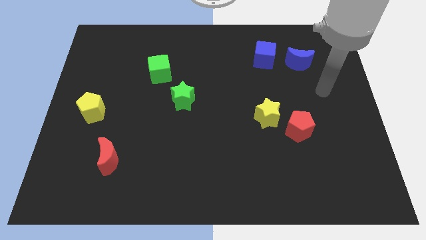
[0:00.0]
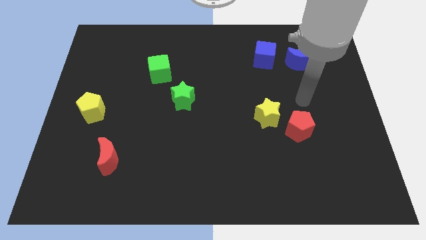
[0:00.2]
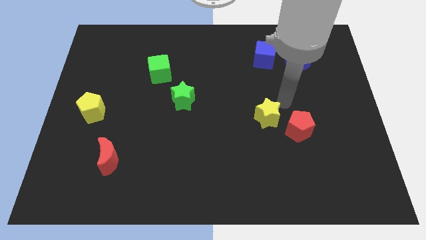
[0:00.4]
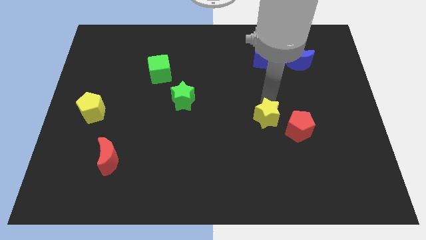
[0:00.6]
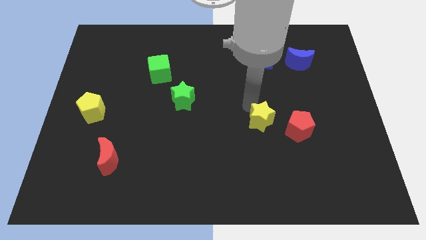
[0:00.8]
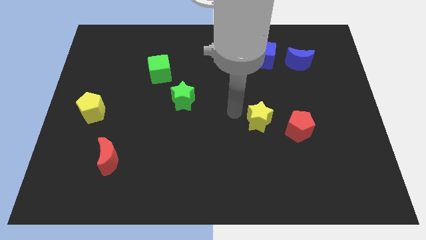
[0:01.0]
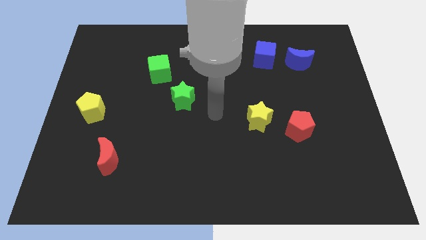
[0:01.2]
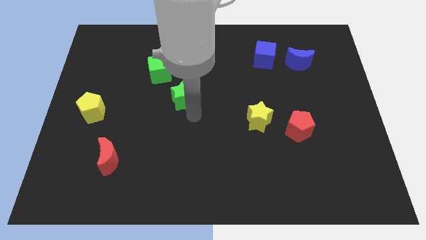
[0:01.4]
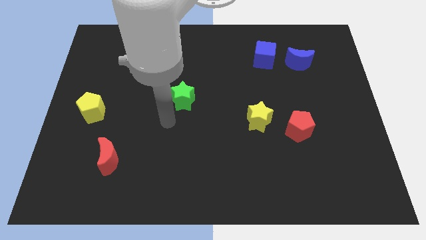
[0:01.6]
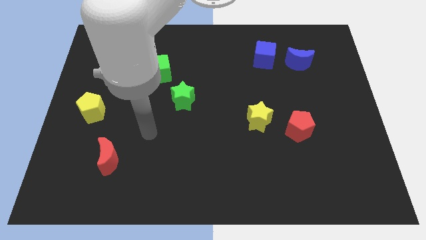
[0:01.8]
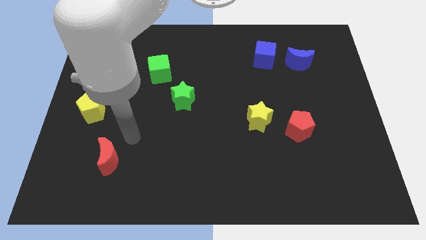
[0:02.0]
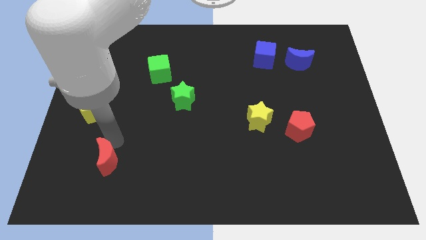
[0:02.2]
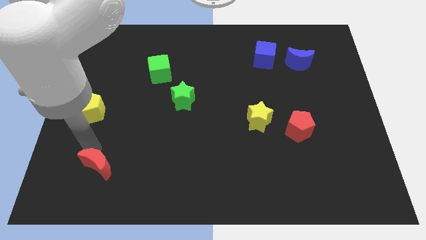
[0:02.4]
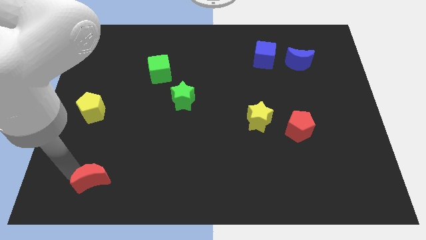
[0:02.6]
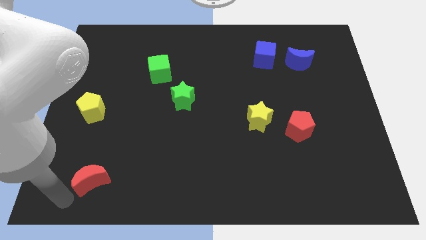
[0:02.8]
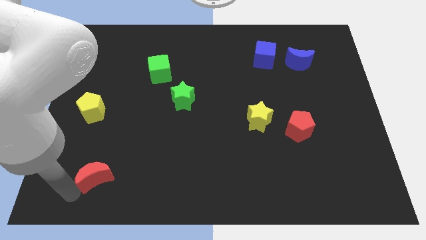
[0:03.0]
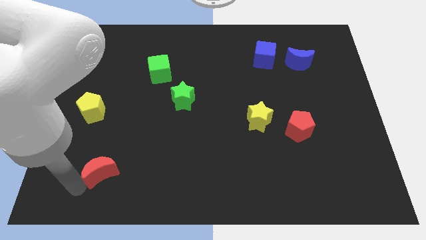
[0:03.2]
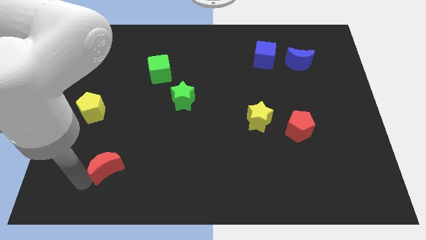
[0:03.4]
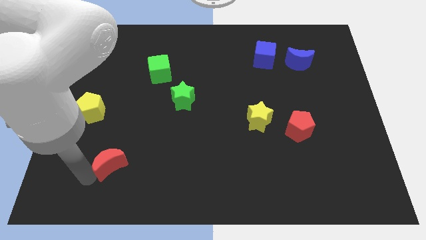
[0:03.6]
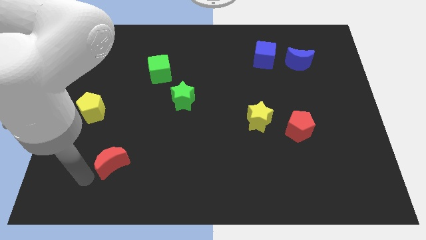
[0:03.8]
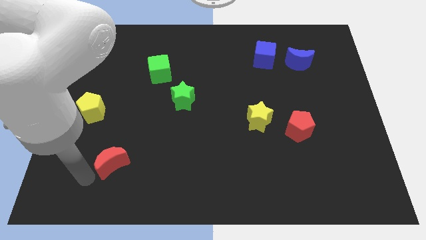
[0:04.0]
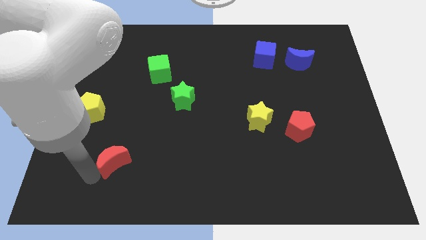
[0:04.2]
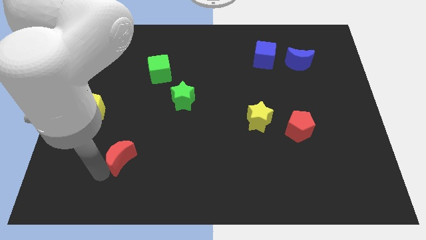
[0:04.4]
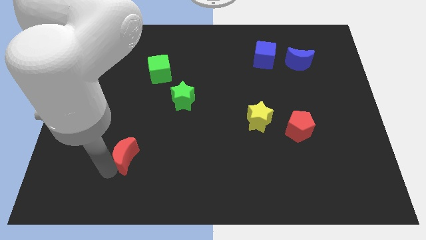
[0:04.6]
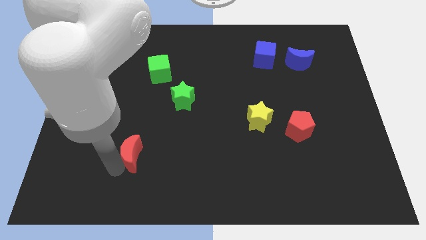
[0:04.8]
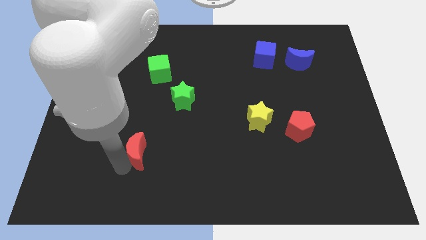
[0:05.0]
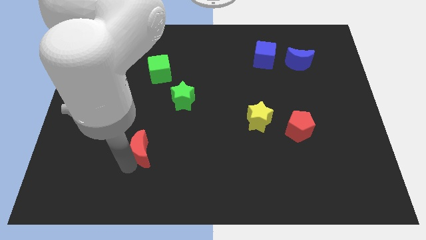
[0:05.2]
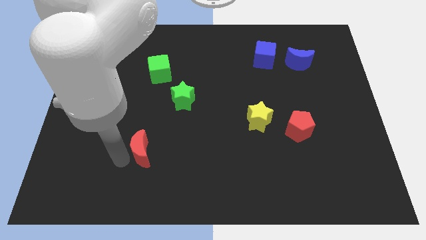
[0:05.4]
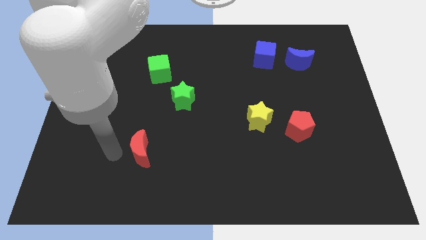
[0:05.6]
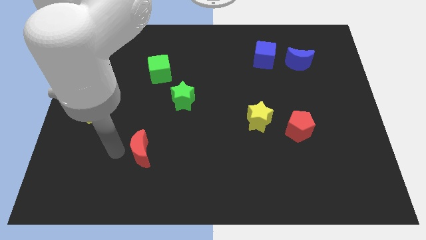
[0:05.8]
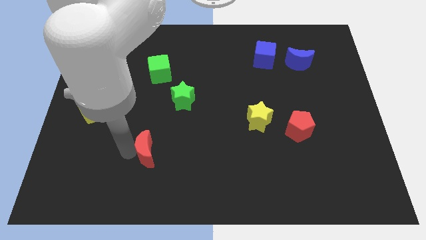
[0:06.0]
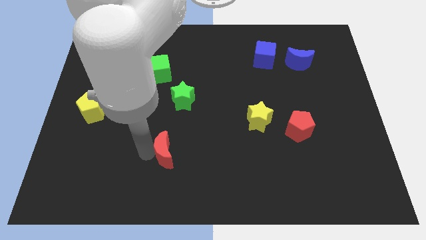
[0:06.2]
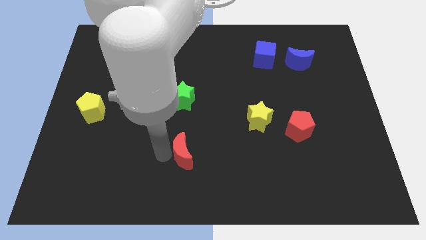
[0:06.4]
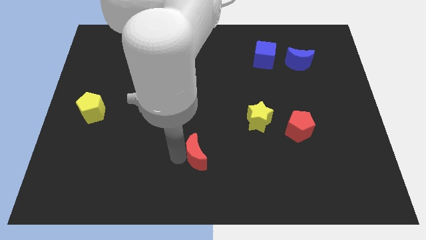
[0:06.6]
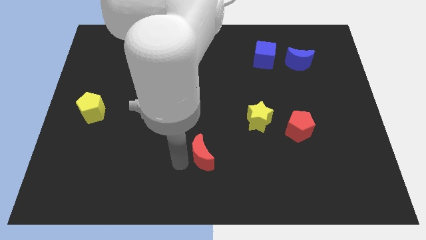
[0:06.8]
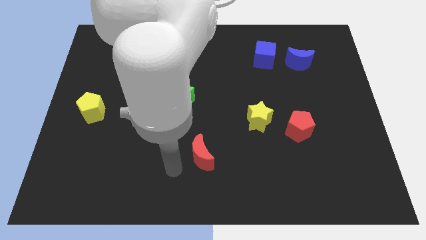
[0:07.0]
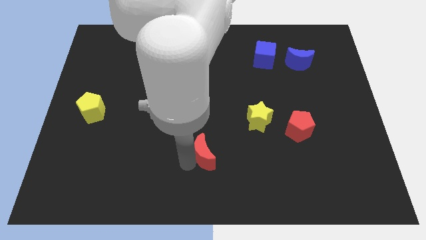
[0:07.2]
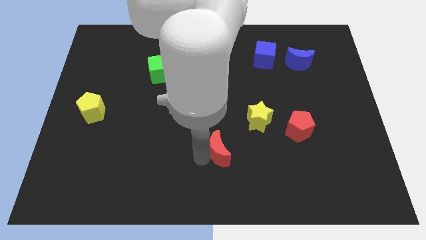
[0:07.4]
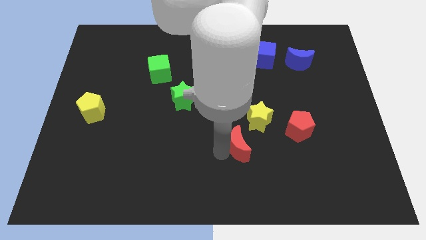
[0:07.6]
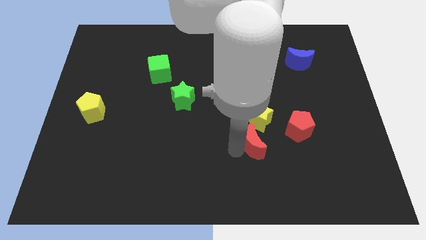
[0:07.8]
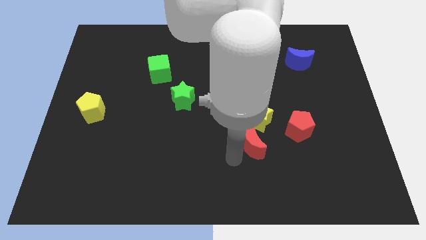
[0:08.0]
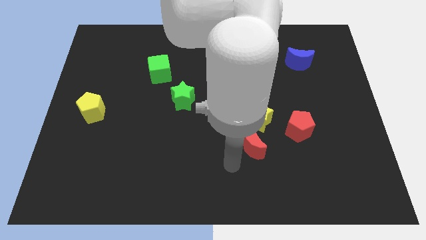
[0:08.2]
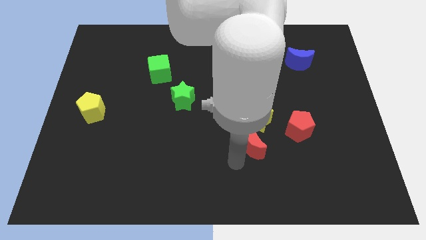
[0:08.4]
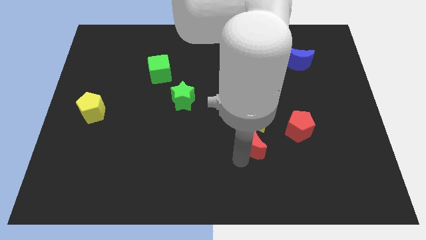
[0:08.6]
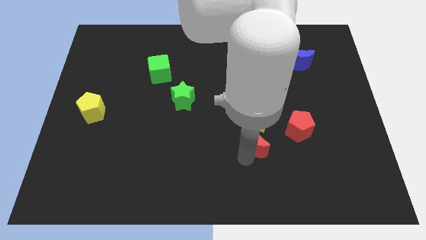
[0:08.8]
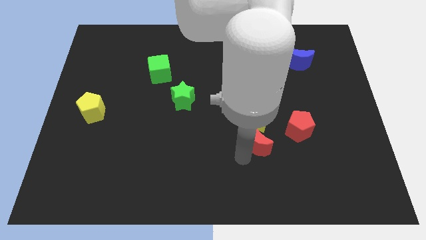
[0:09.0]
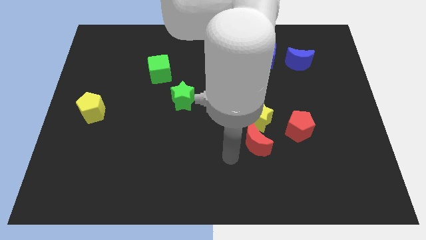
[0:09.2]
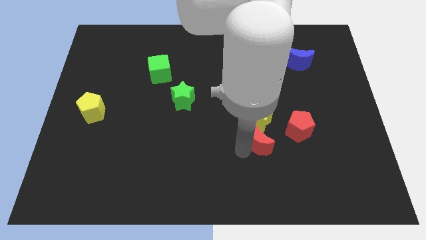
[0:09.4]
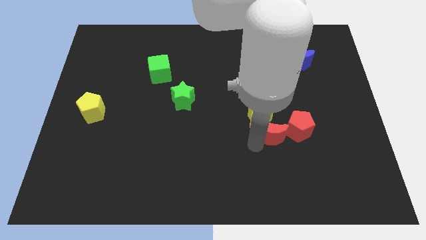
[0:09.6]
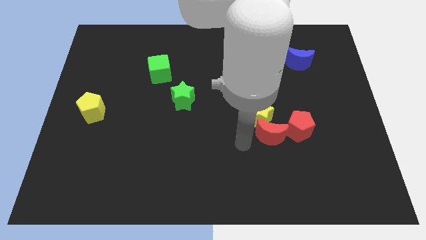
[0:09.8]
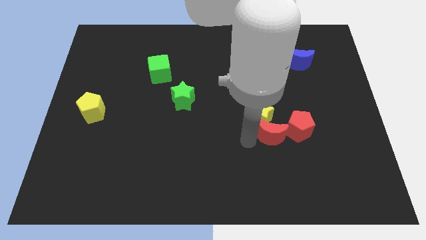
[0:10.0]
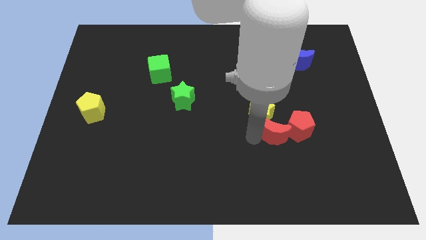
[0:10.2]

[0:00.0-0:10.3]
slide the red moon next to the red pentagon

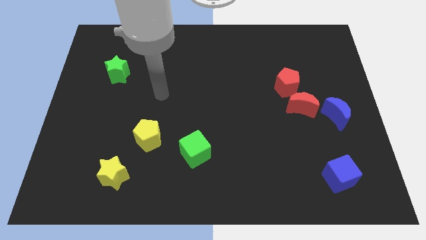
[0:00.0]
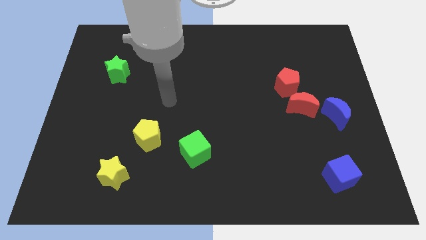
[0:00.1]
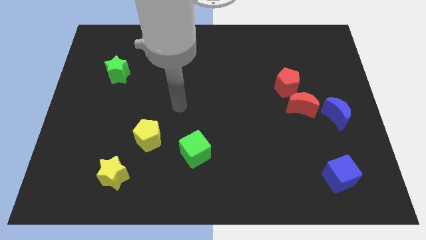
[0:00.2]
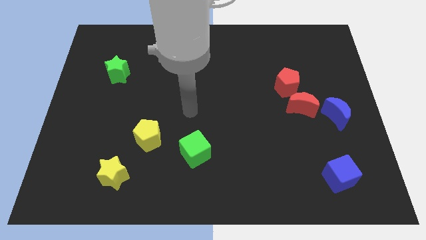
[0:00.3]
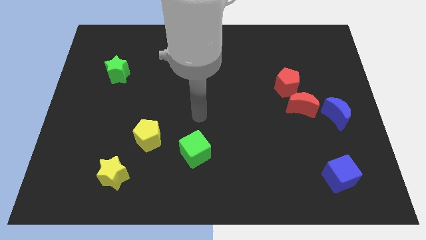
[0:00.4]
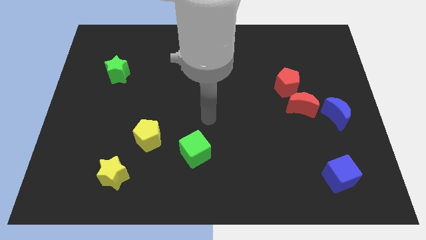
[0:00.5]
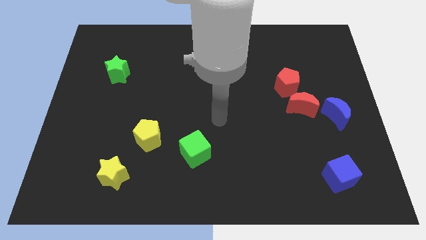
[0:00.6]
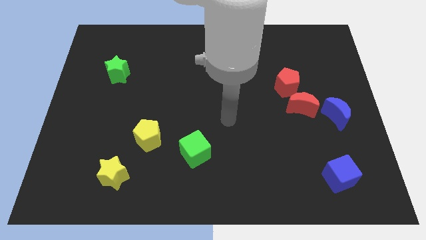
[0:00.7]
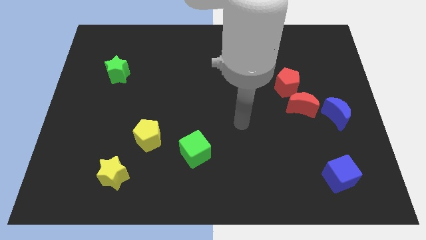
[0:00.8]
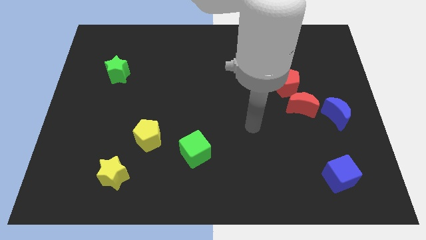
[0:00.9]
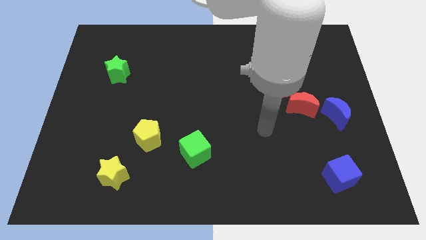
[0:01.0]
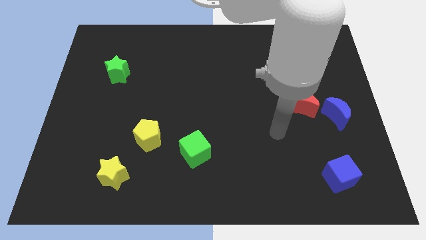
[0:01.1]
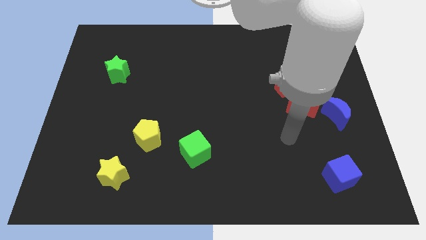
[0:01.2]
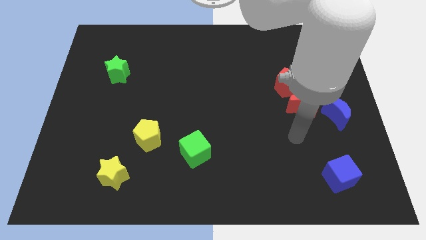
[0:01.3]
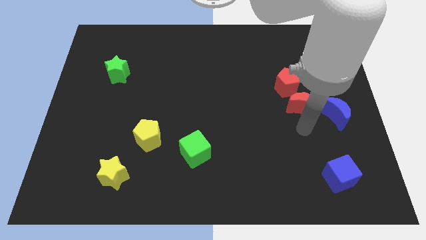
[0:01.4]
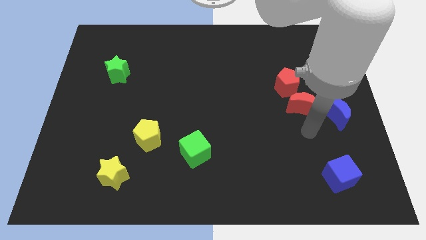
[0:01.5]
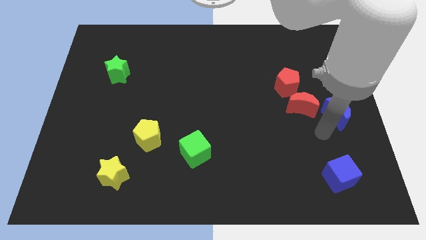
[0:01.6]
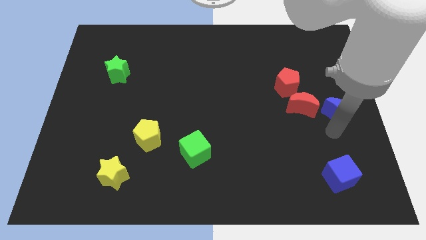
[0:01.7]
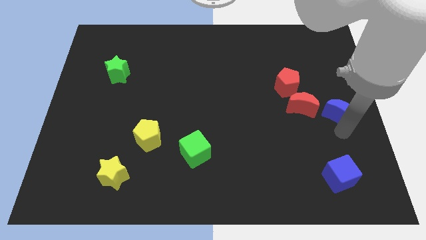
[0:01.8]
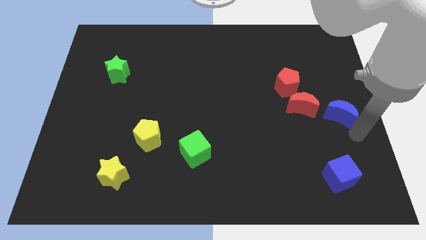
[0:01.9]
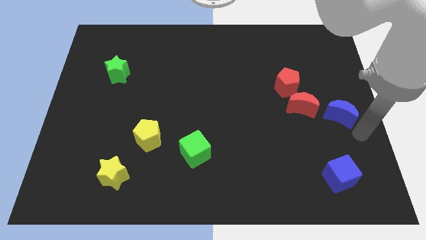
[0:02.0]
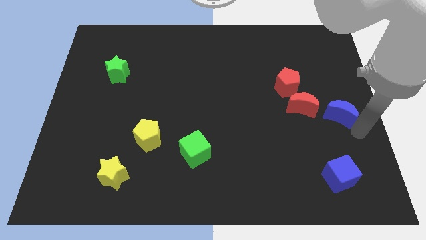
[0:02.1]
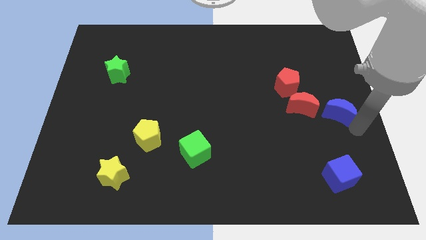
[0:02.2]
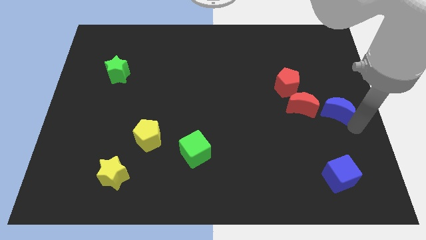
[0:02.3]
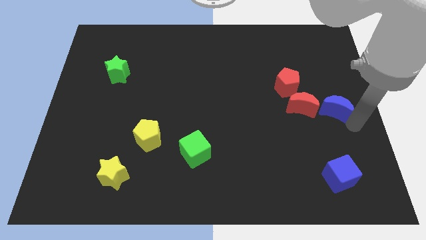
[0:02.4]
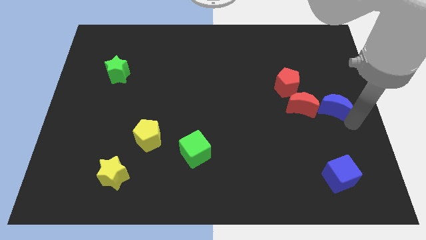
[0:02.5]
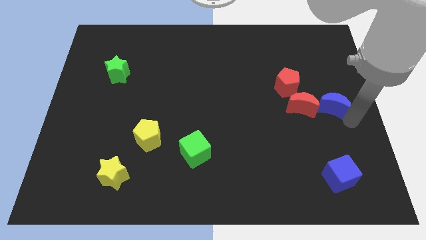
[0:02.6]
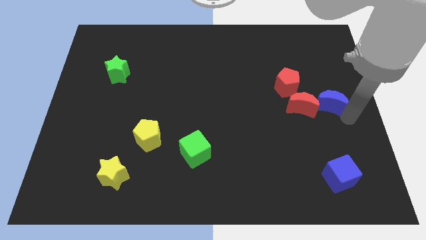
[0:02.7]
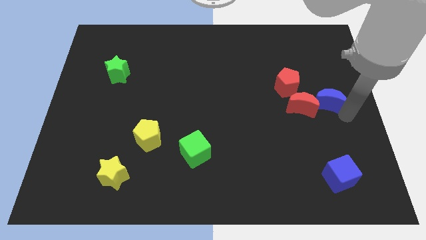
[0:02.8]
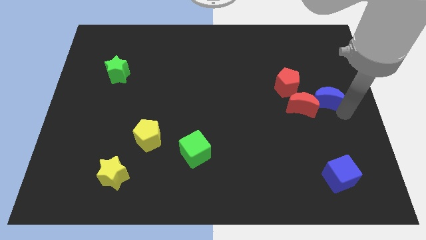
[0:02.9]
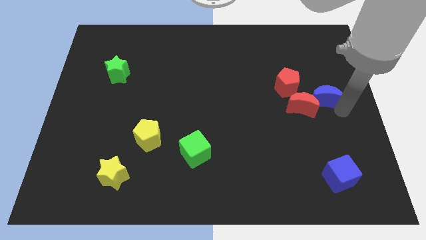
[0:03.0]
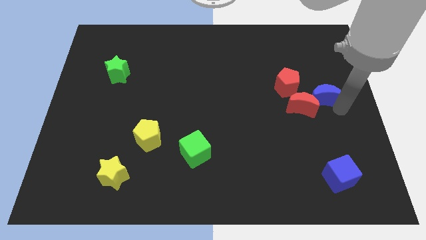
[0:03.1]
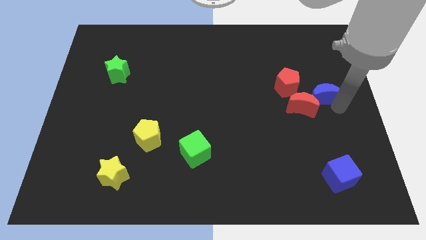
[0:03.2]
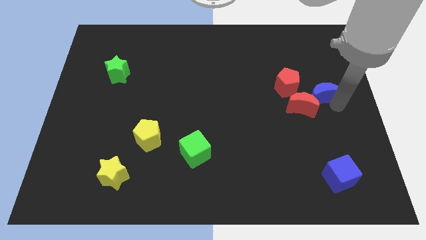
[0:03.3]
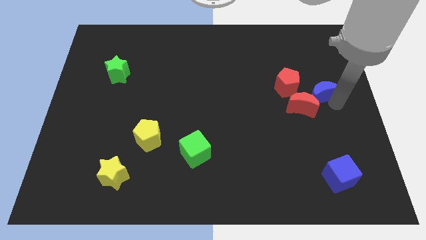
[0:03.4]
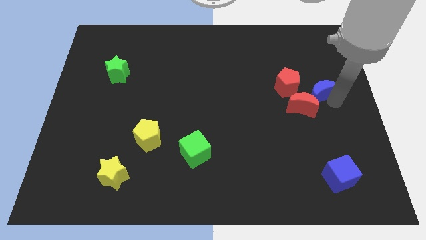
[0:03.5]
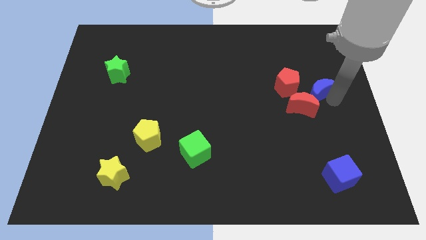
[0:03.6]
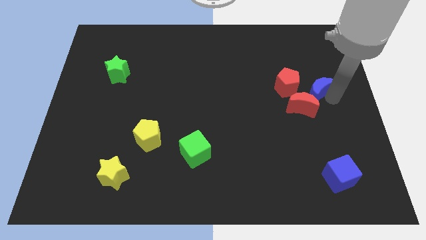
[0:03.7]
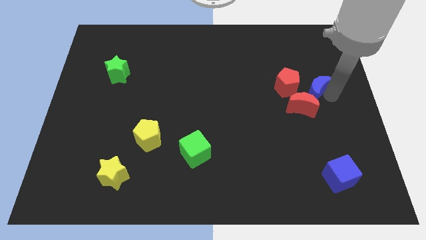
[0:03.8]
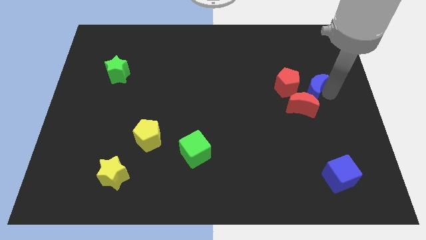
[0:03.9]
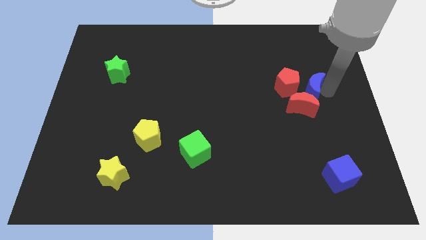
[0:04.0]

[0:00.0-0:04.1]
push the blue moon towards the red pentagon
